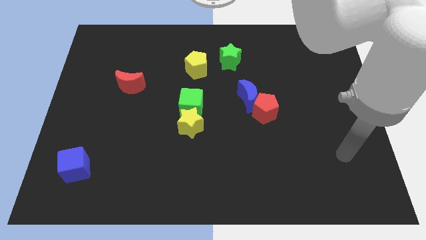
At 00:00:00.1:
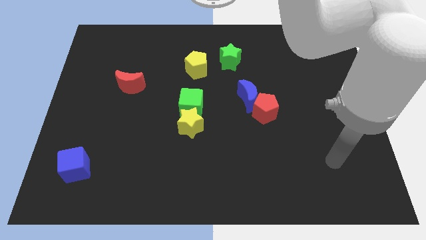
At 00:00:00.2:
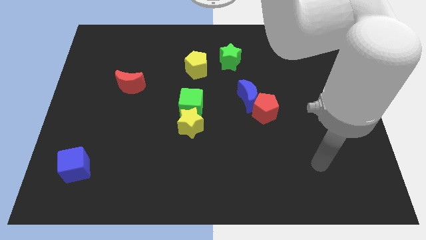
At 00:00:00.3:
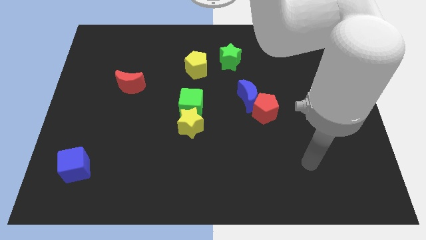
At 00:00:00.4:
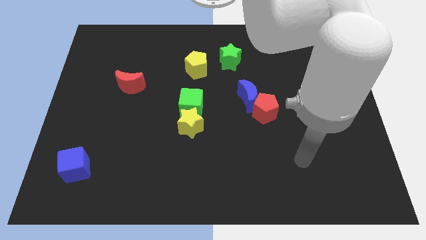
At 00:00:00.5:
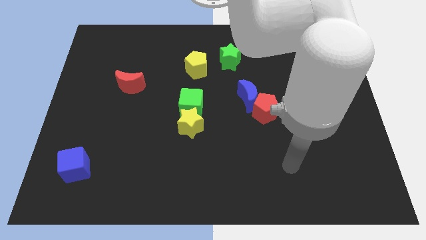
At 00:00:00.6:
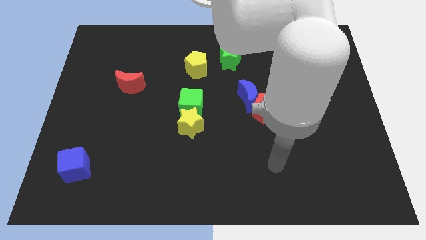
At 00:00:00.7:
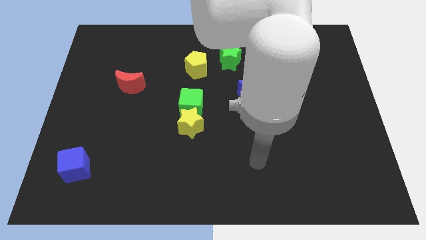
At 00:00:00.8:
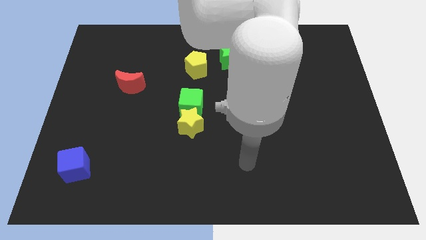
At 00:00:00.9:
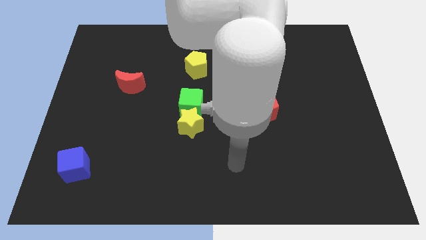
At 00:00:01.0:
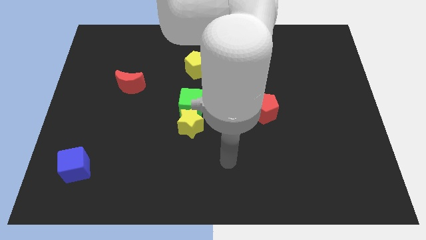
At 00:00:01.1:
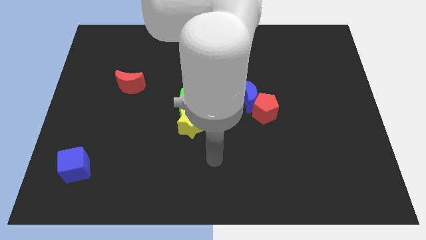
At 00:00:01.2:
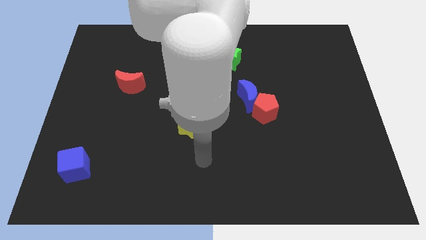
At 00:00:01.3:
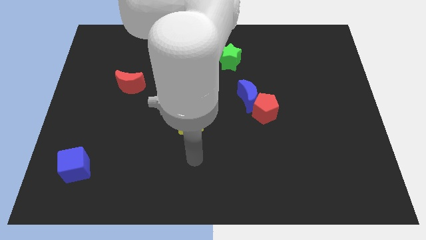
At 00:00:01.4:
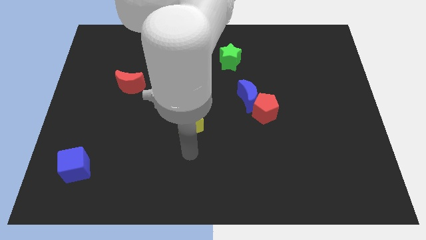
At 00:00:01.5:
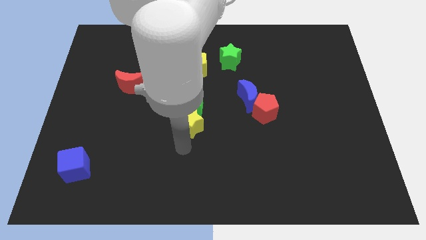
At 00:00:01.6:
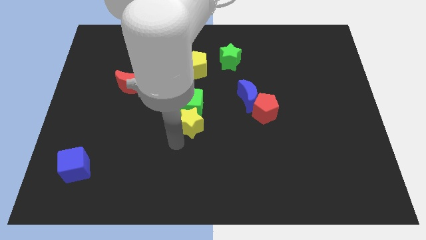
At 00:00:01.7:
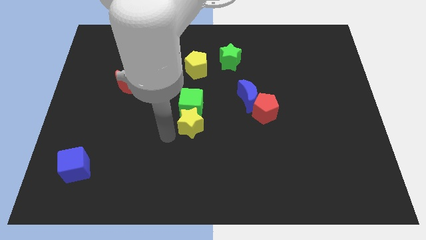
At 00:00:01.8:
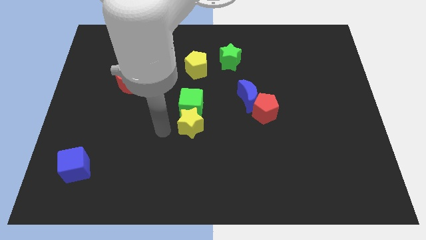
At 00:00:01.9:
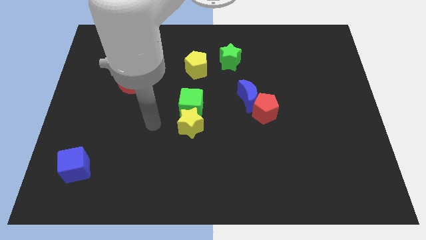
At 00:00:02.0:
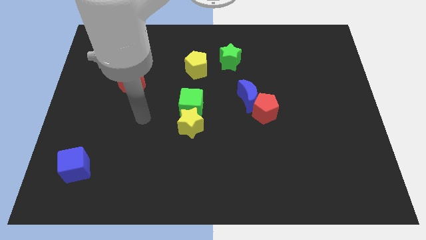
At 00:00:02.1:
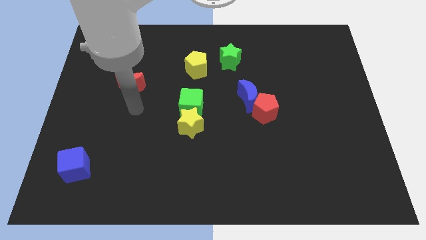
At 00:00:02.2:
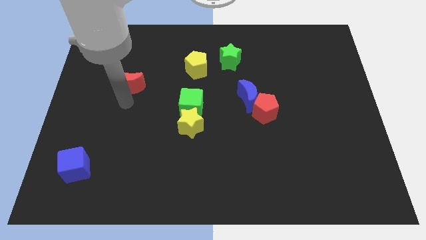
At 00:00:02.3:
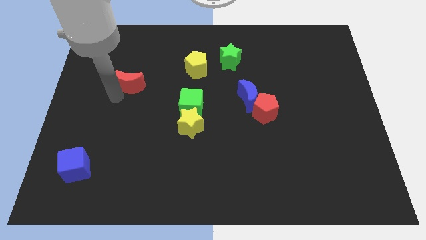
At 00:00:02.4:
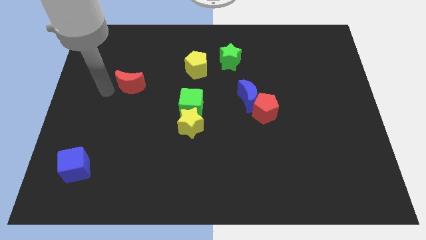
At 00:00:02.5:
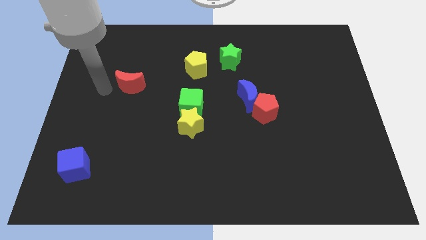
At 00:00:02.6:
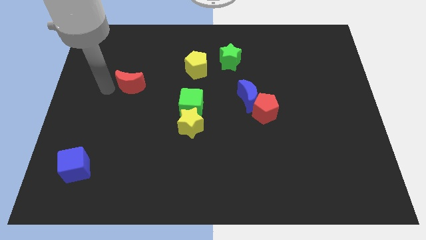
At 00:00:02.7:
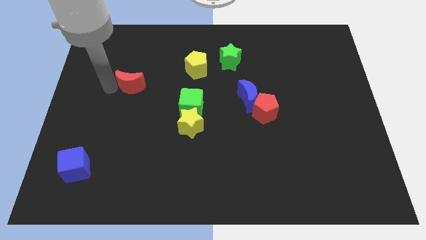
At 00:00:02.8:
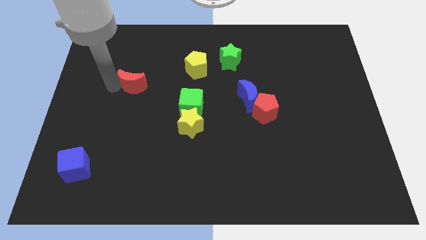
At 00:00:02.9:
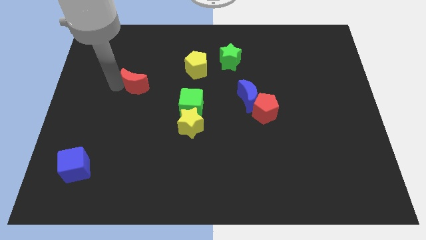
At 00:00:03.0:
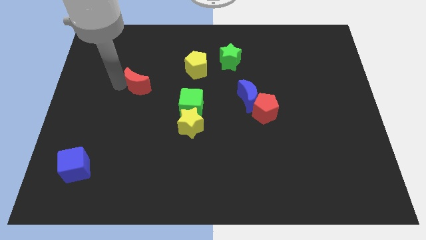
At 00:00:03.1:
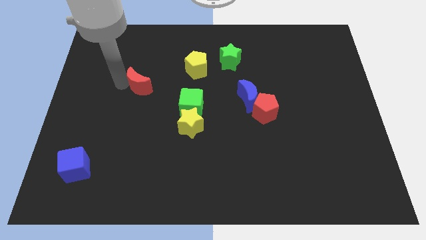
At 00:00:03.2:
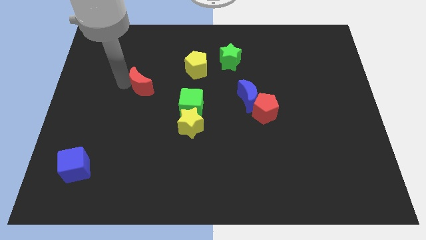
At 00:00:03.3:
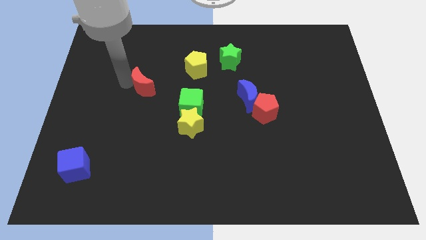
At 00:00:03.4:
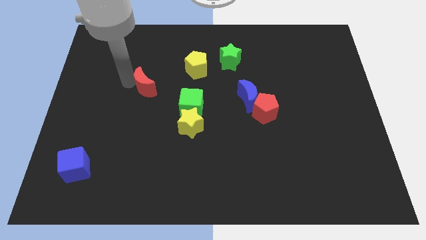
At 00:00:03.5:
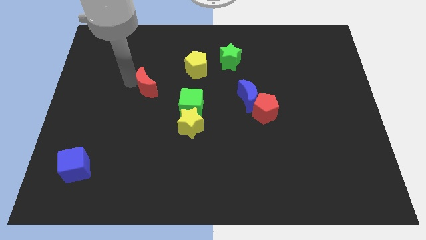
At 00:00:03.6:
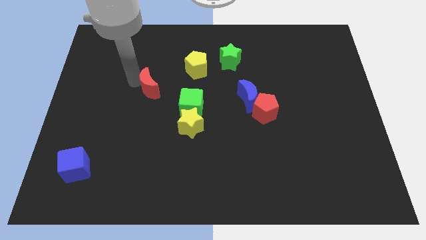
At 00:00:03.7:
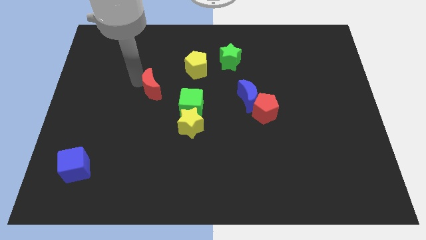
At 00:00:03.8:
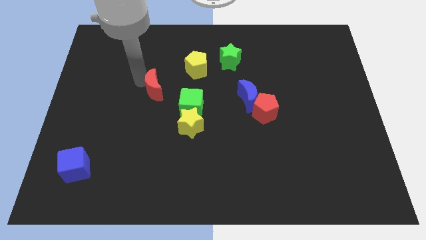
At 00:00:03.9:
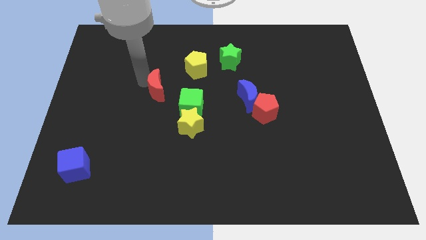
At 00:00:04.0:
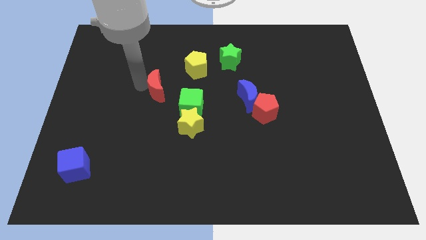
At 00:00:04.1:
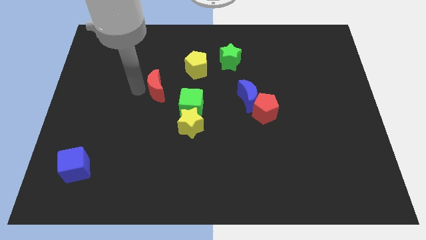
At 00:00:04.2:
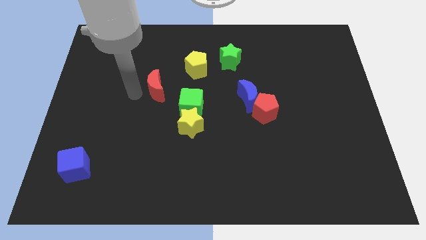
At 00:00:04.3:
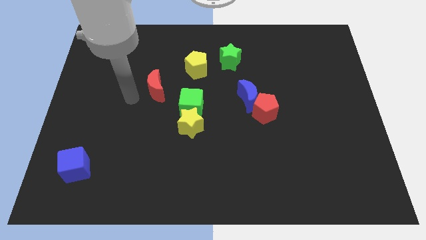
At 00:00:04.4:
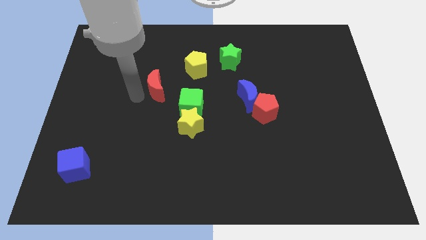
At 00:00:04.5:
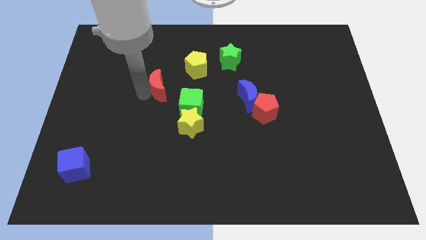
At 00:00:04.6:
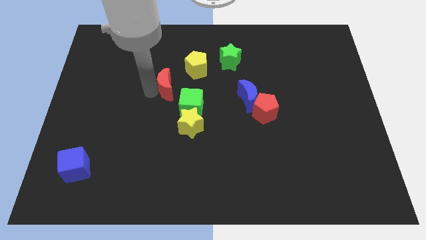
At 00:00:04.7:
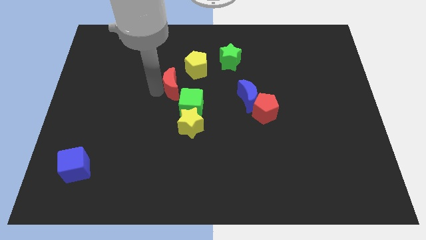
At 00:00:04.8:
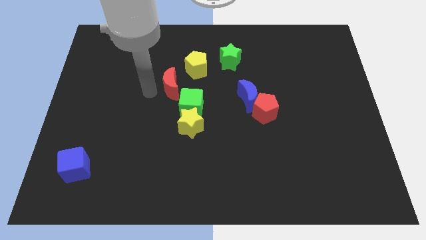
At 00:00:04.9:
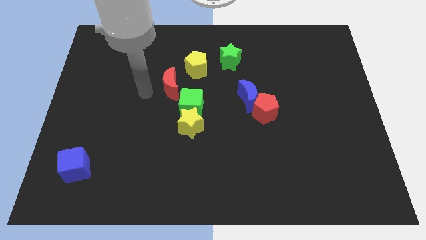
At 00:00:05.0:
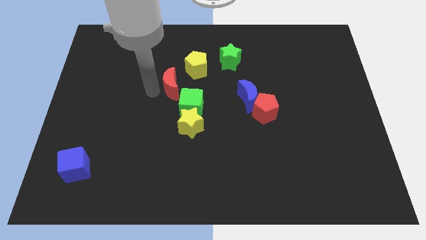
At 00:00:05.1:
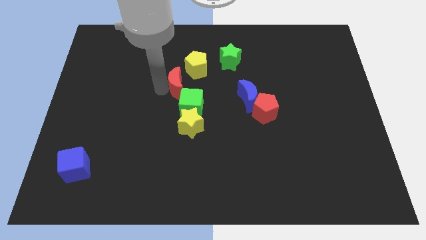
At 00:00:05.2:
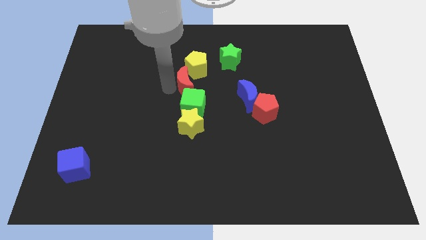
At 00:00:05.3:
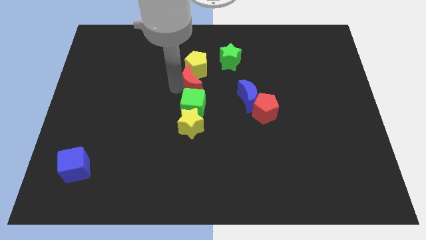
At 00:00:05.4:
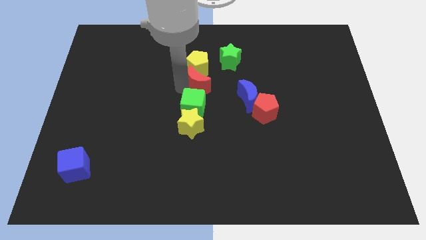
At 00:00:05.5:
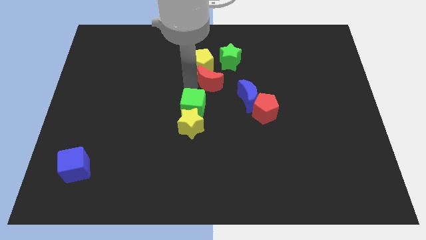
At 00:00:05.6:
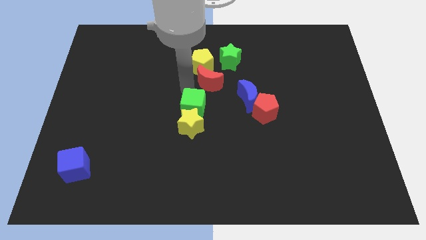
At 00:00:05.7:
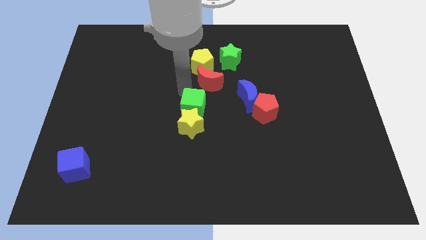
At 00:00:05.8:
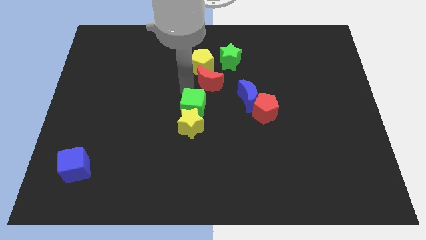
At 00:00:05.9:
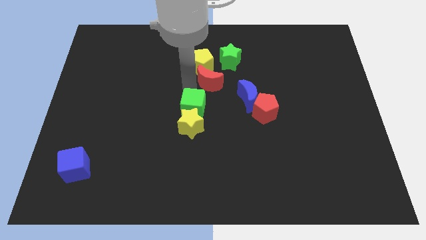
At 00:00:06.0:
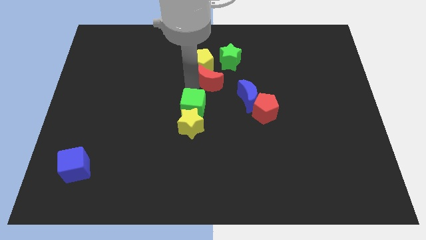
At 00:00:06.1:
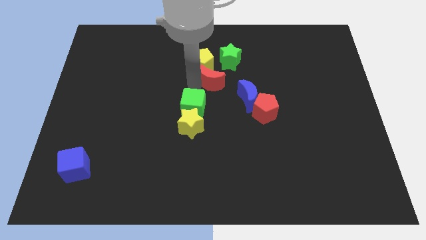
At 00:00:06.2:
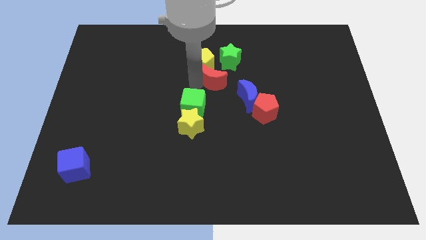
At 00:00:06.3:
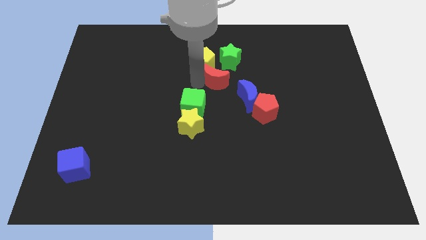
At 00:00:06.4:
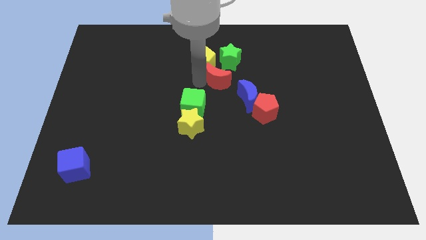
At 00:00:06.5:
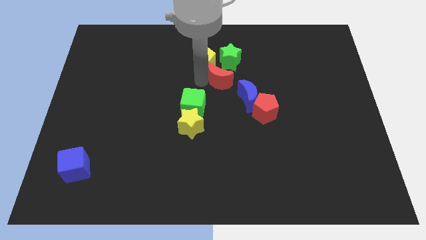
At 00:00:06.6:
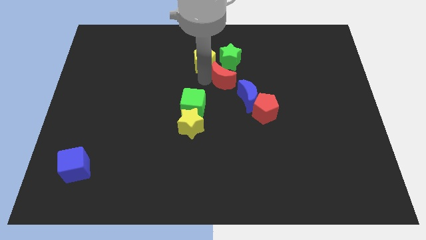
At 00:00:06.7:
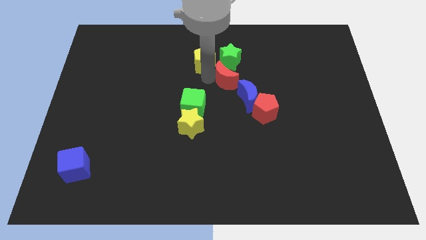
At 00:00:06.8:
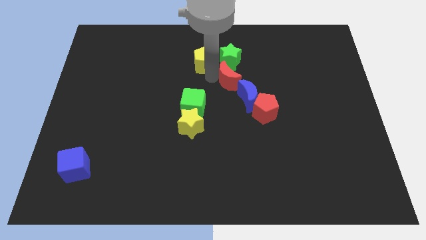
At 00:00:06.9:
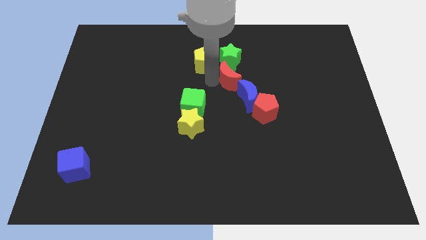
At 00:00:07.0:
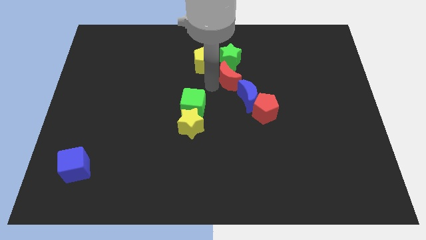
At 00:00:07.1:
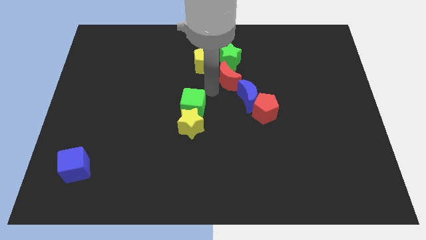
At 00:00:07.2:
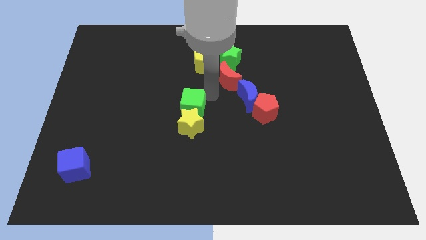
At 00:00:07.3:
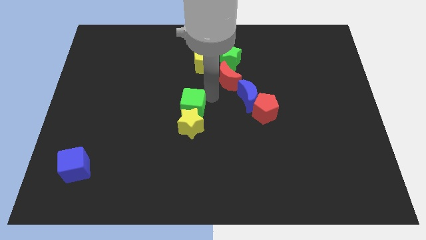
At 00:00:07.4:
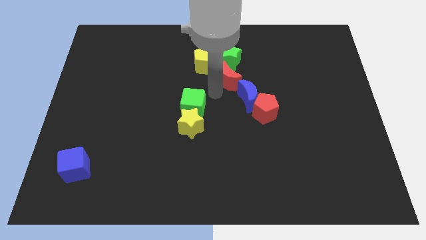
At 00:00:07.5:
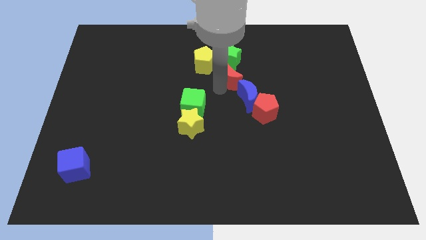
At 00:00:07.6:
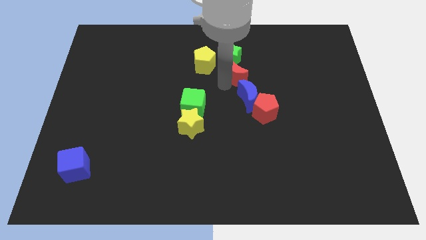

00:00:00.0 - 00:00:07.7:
slide the red moon right of the yellow pentagon
